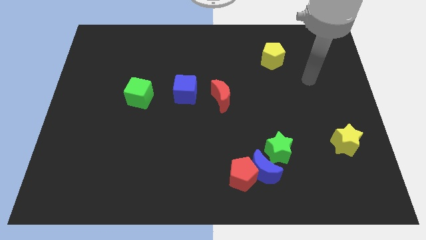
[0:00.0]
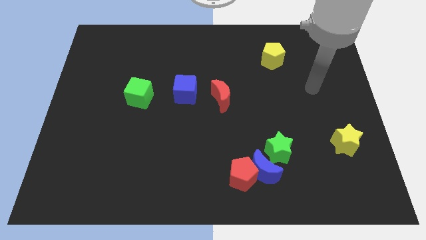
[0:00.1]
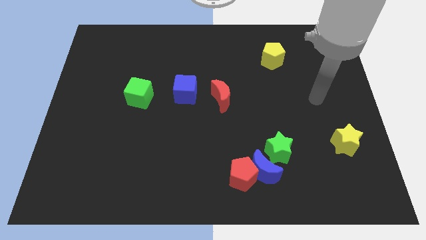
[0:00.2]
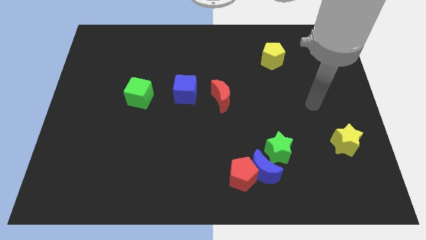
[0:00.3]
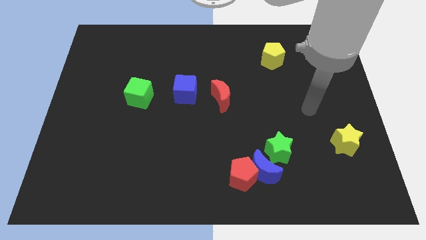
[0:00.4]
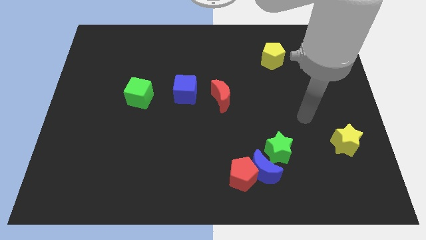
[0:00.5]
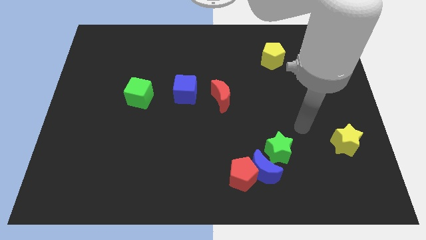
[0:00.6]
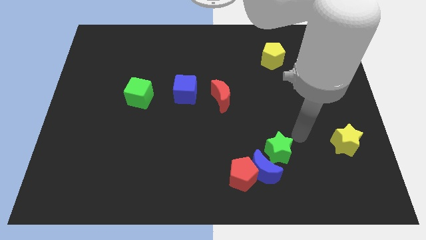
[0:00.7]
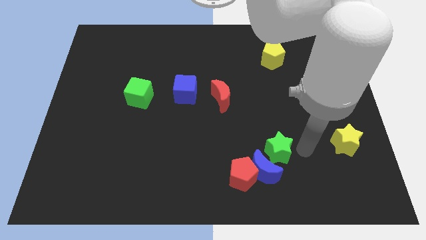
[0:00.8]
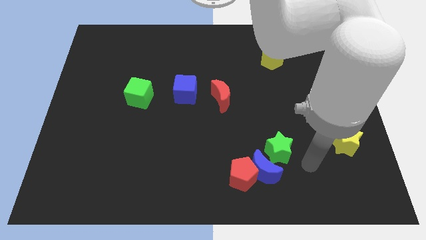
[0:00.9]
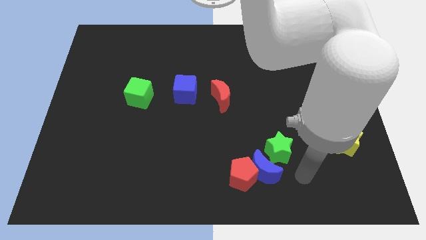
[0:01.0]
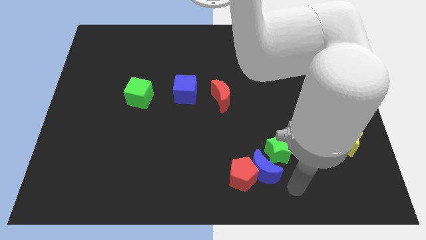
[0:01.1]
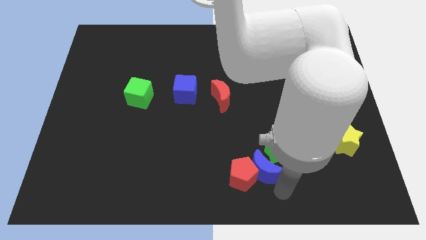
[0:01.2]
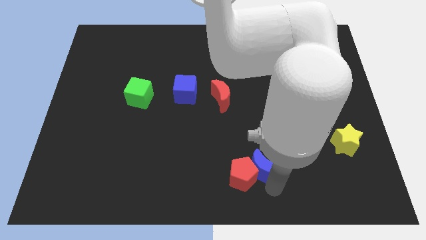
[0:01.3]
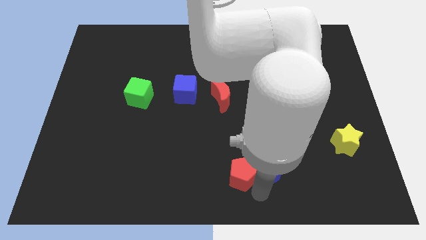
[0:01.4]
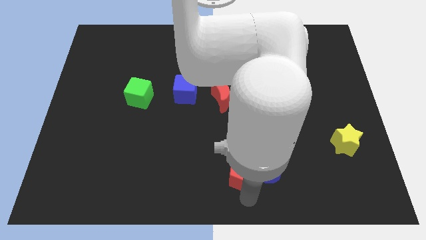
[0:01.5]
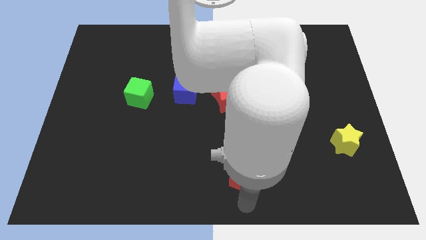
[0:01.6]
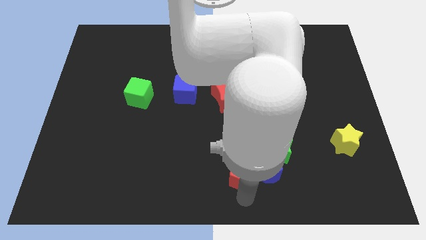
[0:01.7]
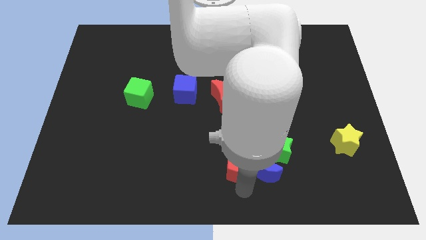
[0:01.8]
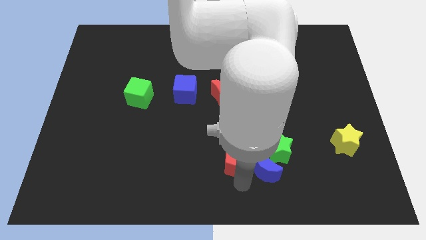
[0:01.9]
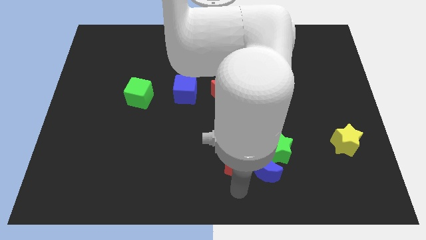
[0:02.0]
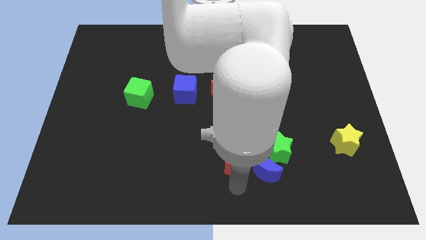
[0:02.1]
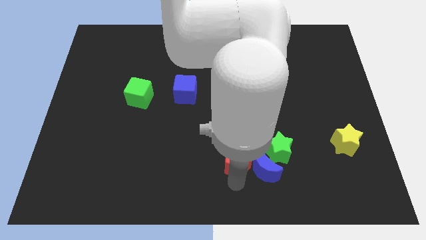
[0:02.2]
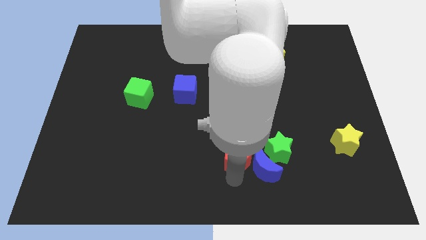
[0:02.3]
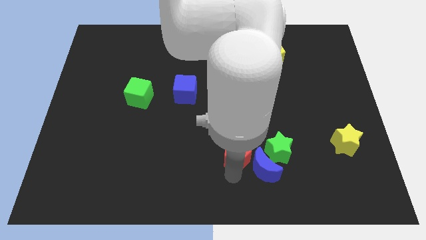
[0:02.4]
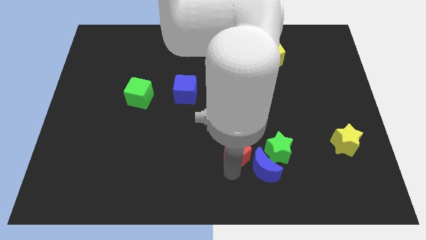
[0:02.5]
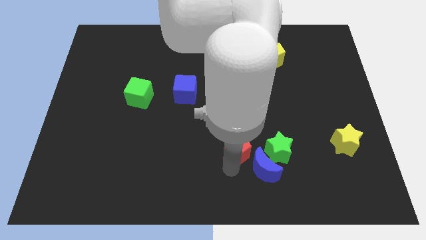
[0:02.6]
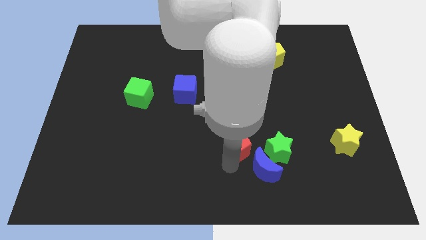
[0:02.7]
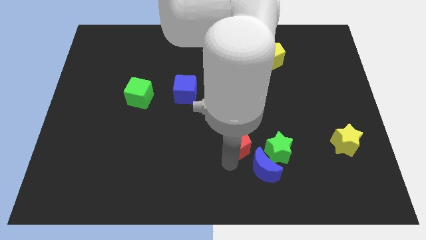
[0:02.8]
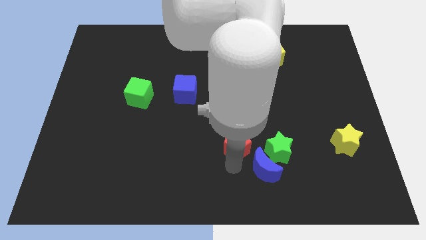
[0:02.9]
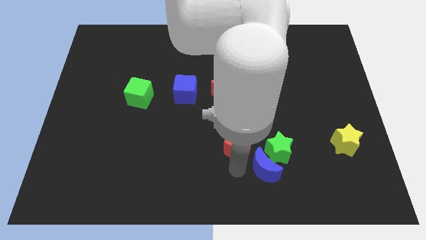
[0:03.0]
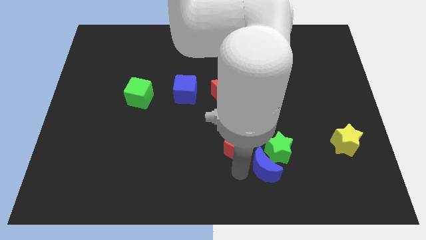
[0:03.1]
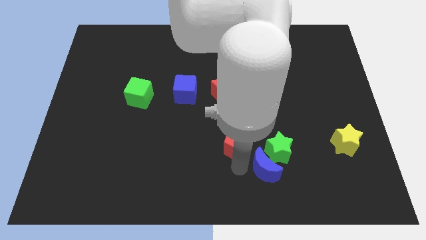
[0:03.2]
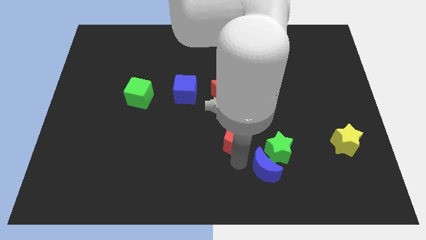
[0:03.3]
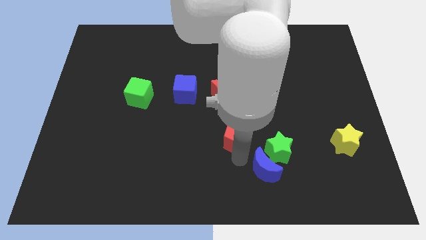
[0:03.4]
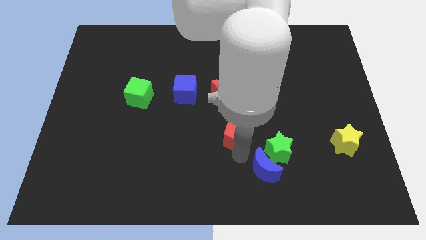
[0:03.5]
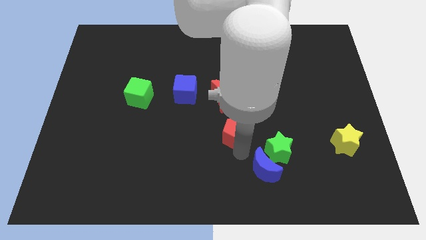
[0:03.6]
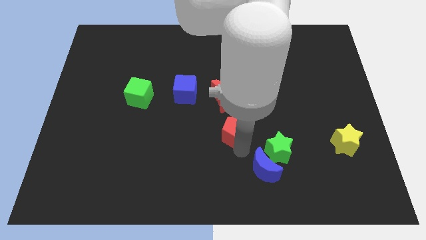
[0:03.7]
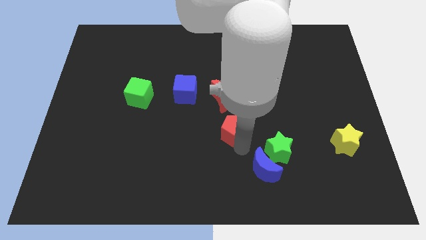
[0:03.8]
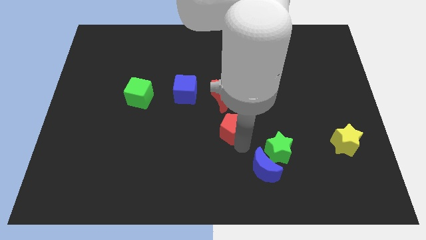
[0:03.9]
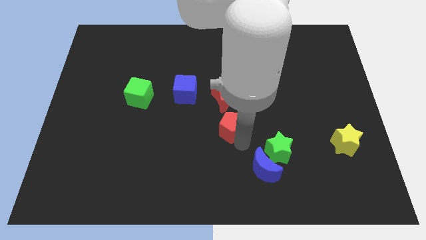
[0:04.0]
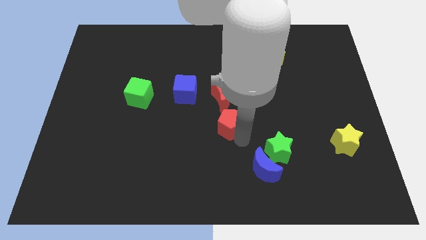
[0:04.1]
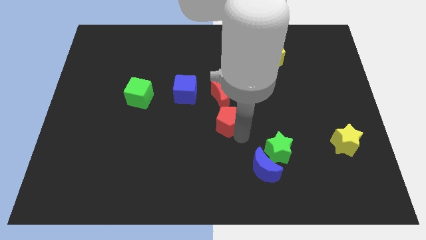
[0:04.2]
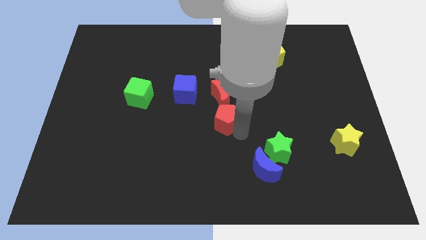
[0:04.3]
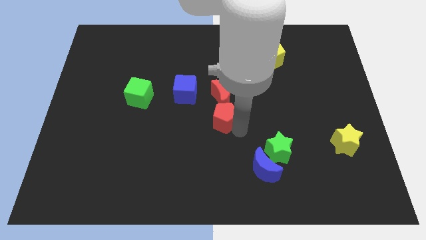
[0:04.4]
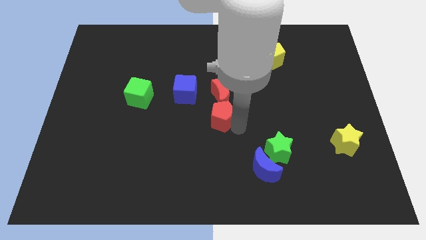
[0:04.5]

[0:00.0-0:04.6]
put the red pentagon to the red moon

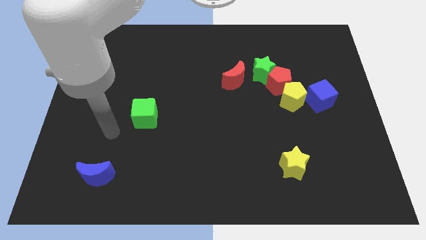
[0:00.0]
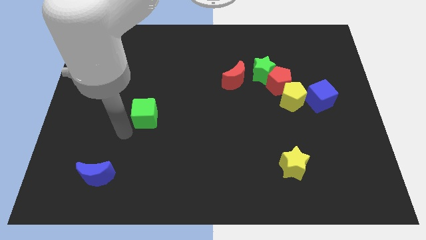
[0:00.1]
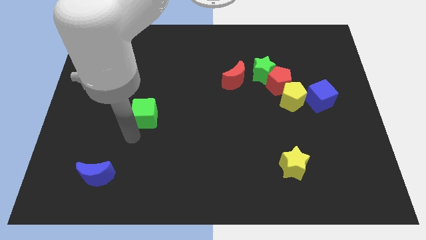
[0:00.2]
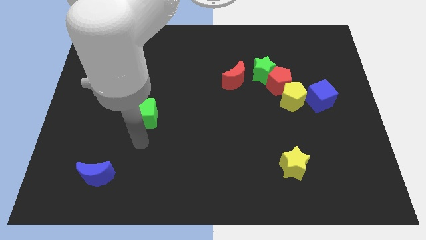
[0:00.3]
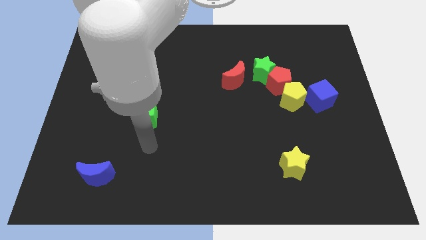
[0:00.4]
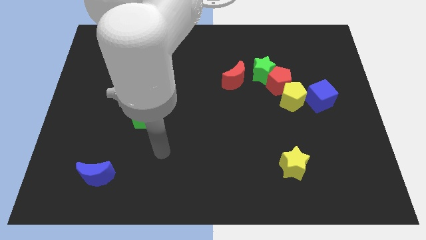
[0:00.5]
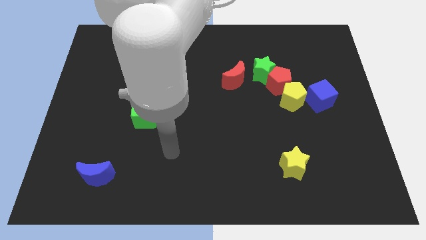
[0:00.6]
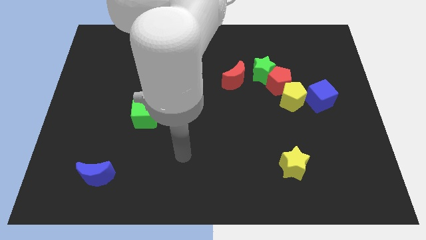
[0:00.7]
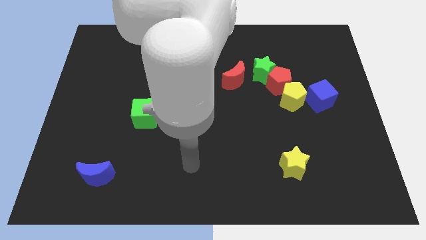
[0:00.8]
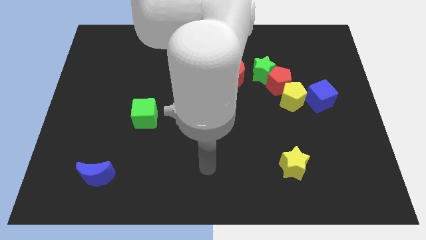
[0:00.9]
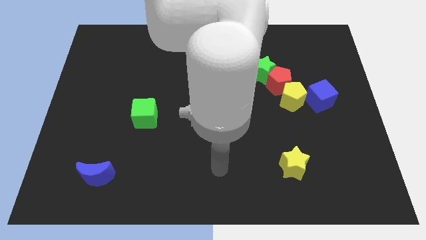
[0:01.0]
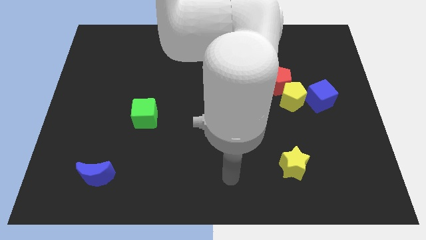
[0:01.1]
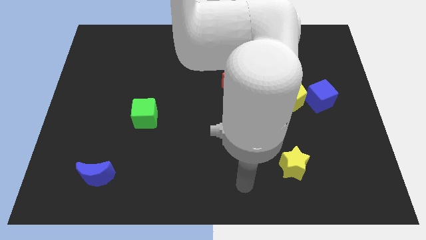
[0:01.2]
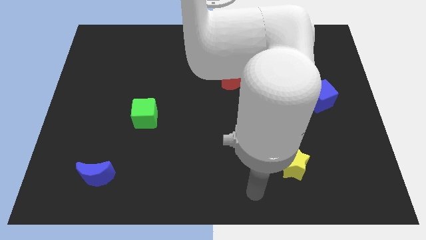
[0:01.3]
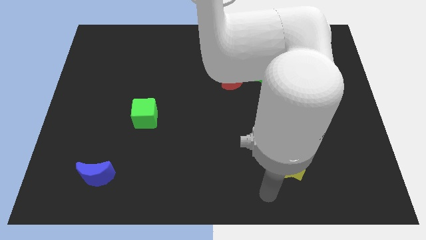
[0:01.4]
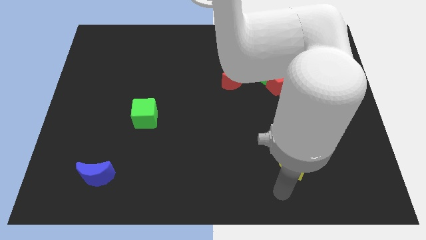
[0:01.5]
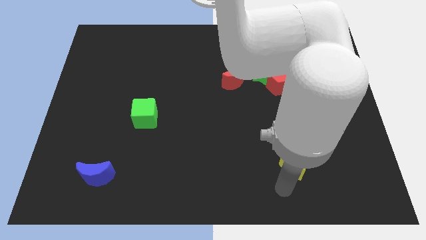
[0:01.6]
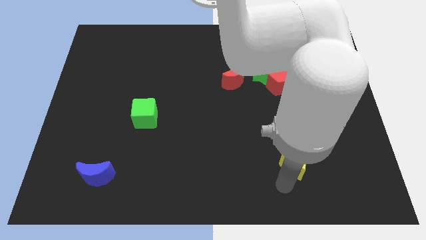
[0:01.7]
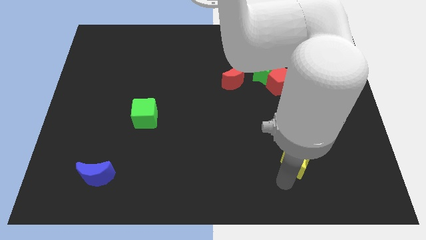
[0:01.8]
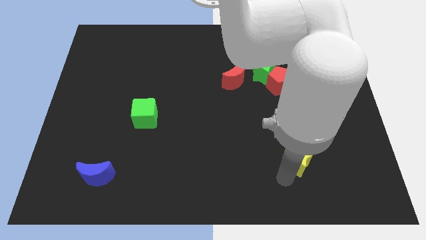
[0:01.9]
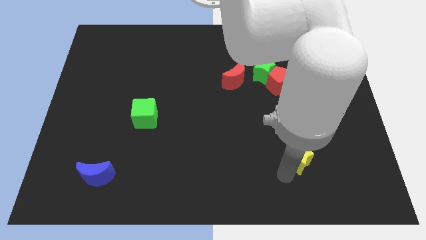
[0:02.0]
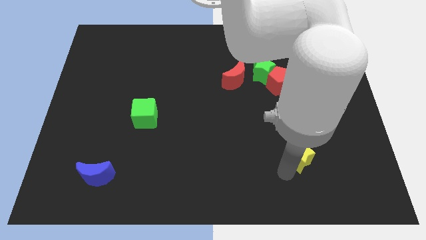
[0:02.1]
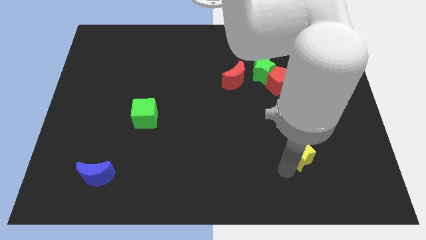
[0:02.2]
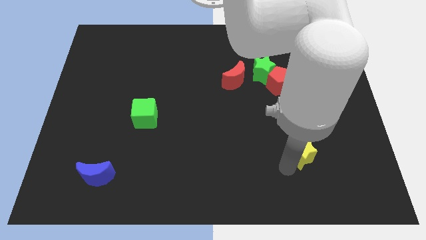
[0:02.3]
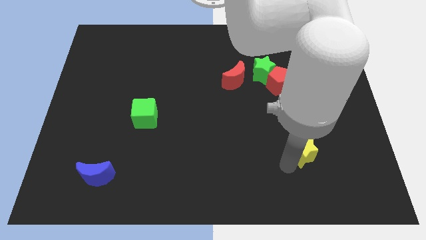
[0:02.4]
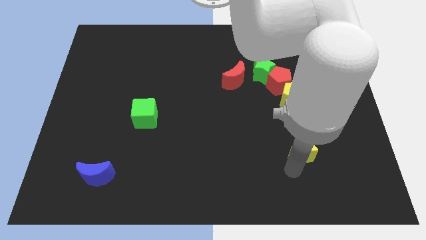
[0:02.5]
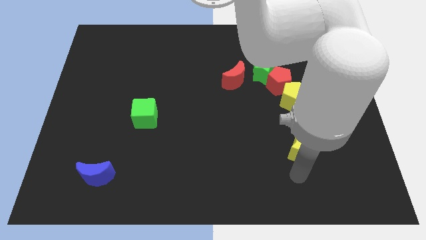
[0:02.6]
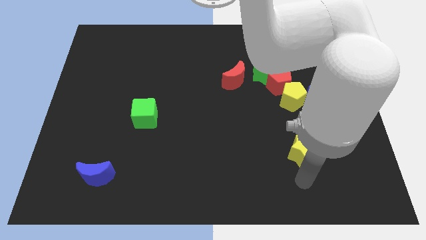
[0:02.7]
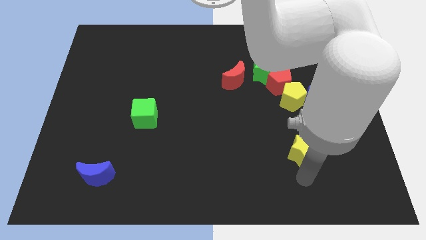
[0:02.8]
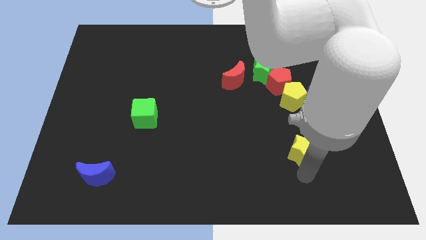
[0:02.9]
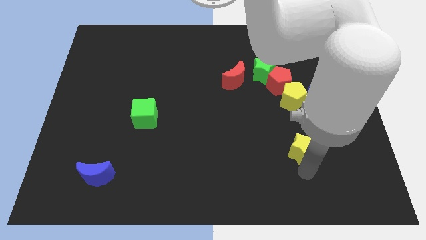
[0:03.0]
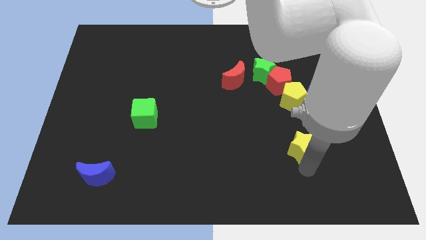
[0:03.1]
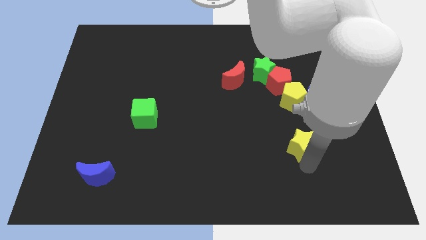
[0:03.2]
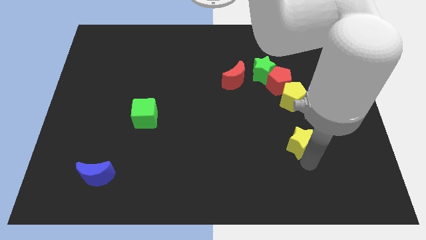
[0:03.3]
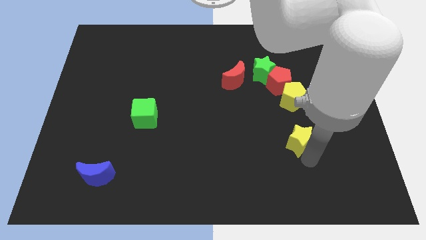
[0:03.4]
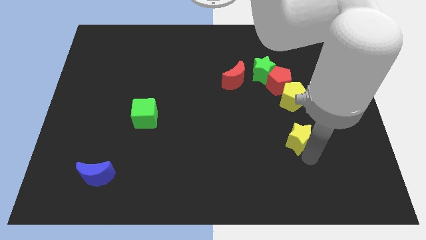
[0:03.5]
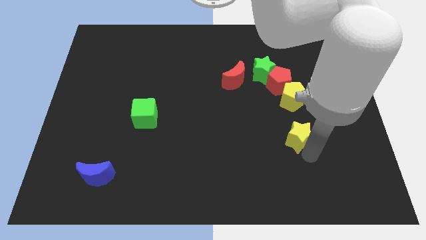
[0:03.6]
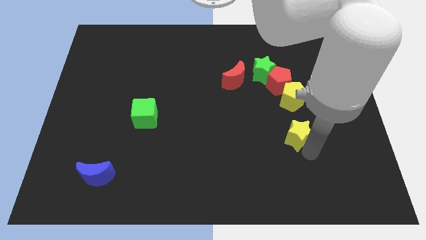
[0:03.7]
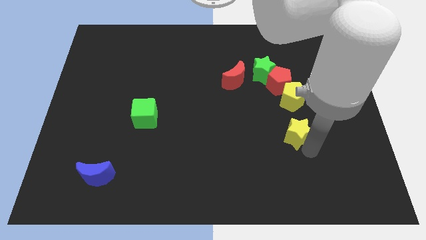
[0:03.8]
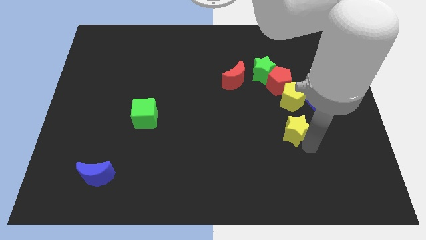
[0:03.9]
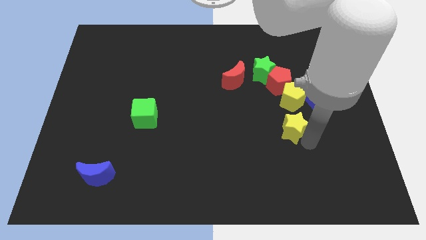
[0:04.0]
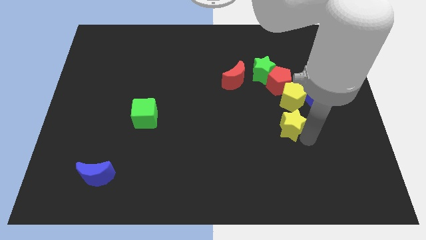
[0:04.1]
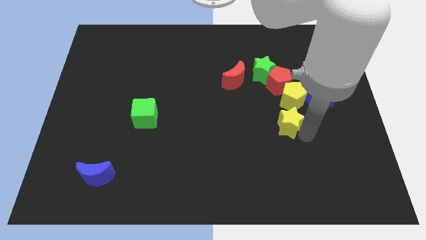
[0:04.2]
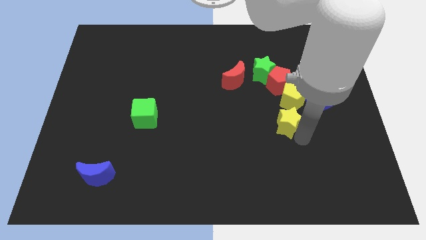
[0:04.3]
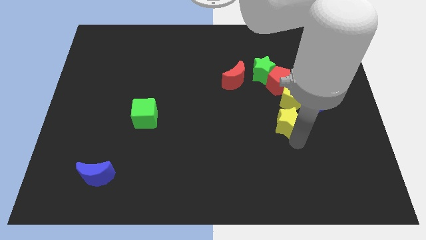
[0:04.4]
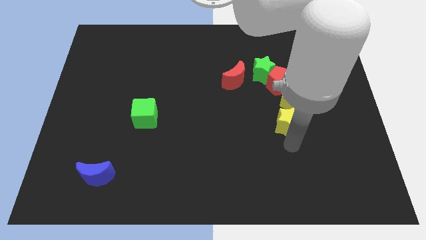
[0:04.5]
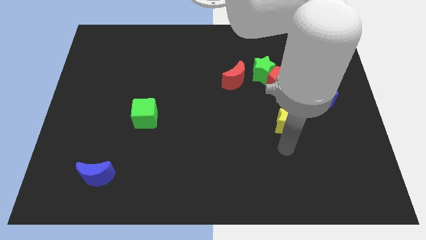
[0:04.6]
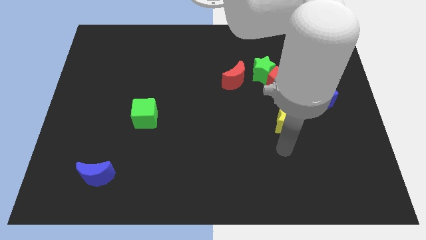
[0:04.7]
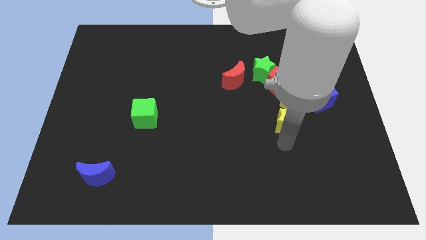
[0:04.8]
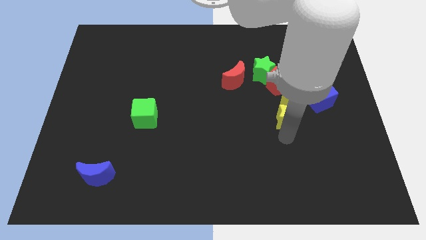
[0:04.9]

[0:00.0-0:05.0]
slide the yellow star towards the yellow pentagon
